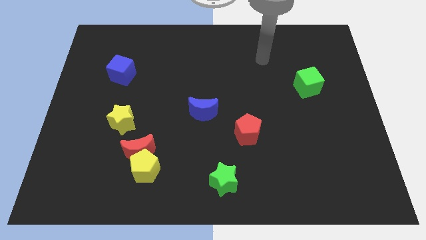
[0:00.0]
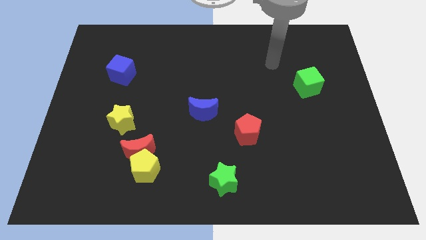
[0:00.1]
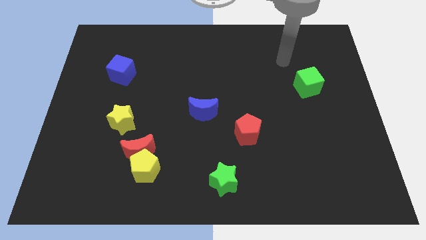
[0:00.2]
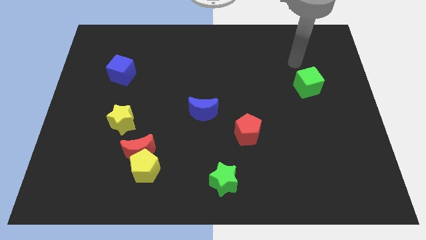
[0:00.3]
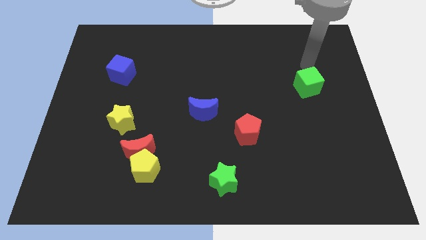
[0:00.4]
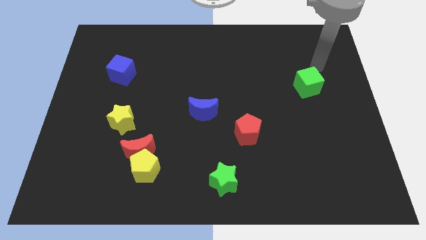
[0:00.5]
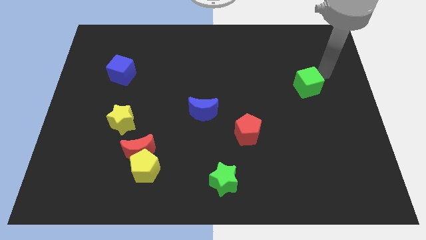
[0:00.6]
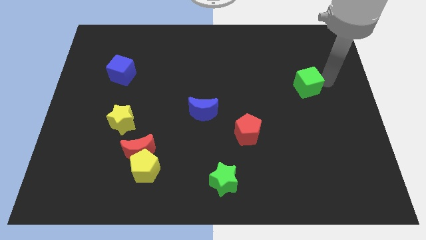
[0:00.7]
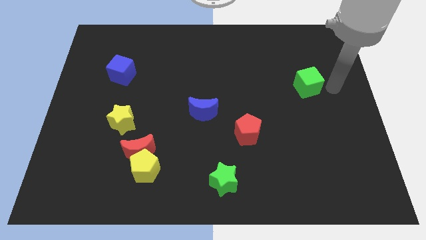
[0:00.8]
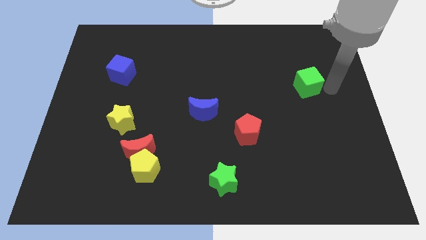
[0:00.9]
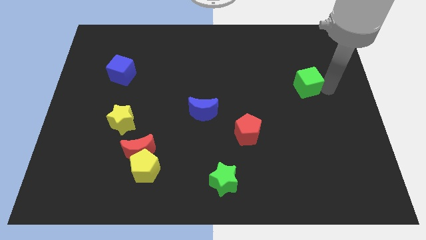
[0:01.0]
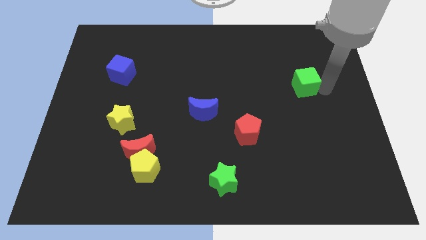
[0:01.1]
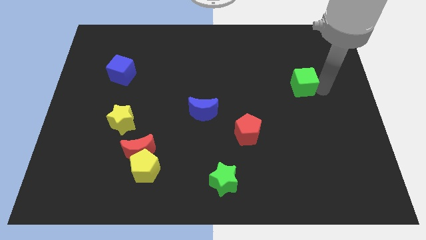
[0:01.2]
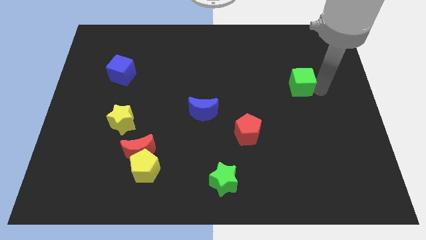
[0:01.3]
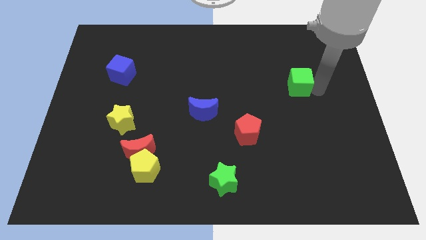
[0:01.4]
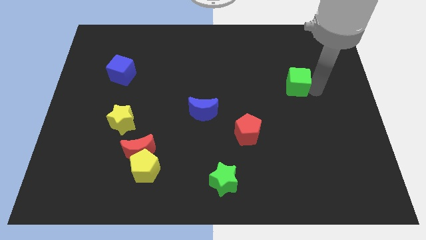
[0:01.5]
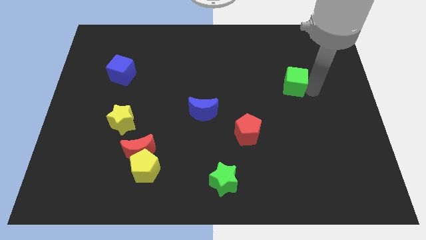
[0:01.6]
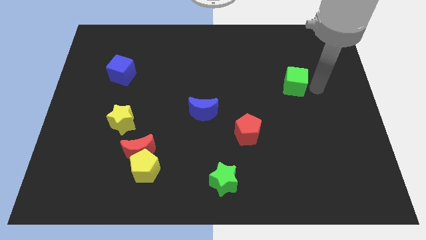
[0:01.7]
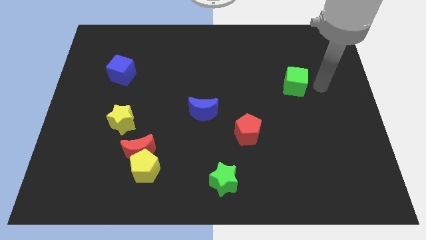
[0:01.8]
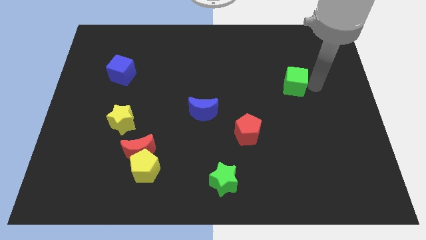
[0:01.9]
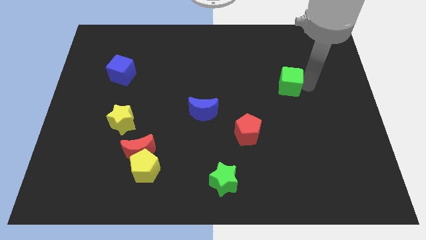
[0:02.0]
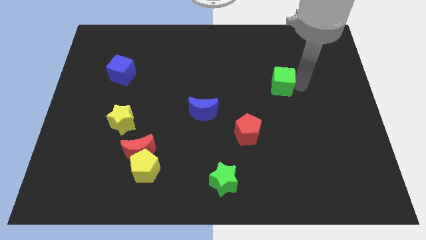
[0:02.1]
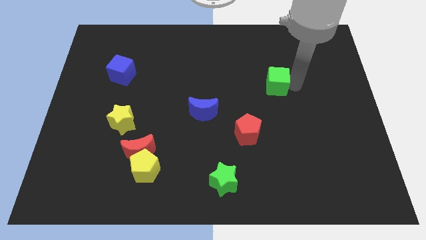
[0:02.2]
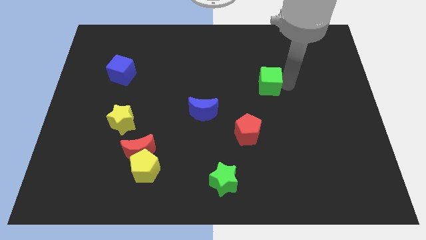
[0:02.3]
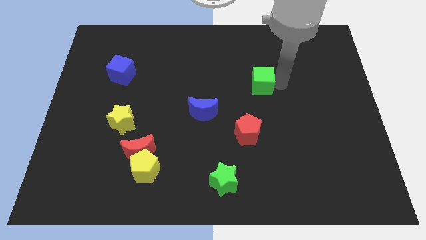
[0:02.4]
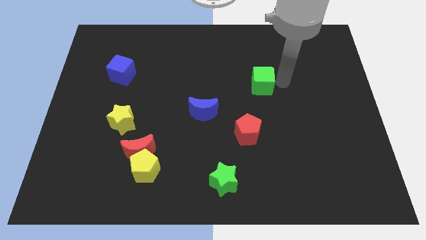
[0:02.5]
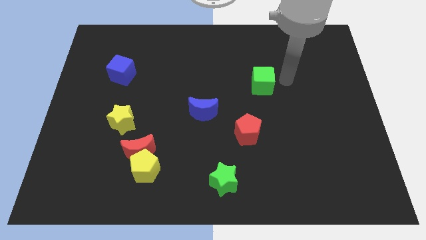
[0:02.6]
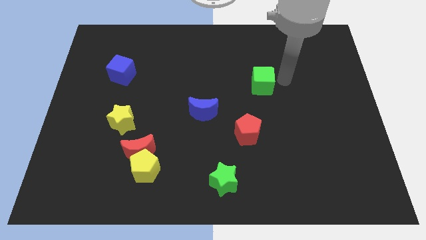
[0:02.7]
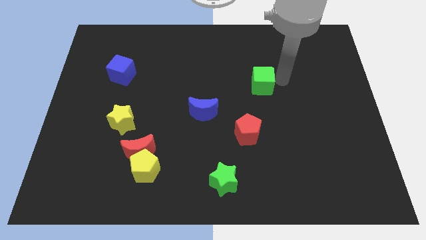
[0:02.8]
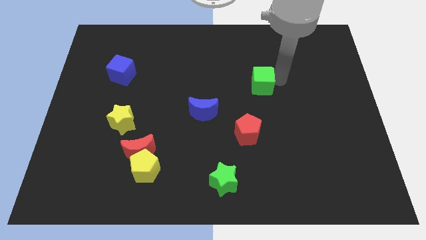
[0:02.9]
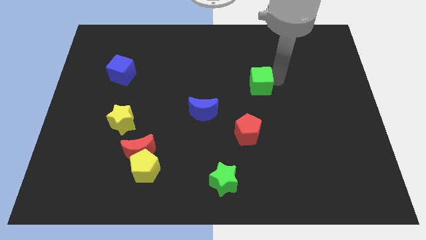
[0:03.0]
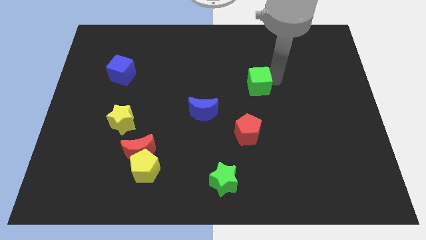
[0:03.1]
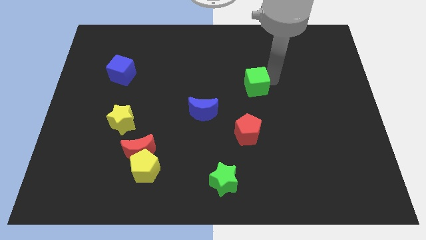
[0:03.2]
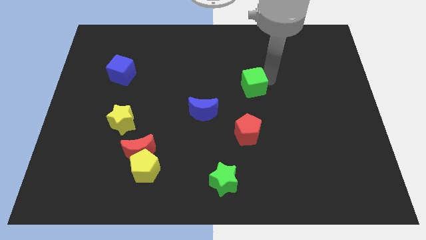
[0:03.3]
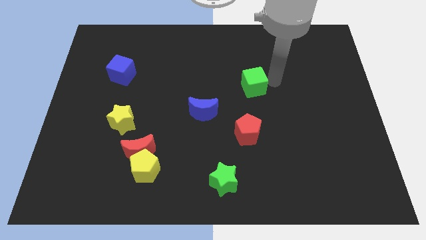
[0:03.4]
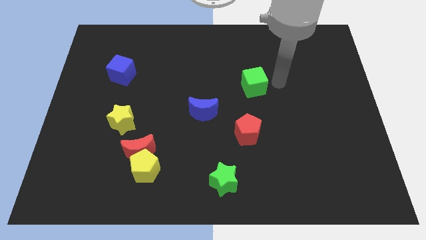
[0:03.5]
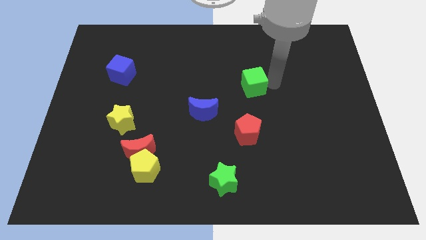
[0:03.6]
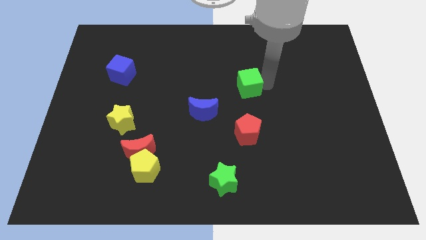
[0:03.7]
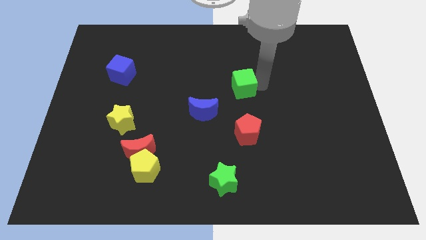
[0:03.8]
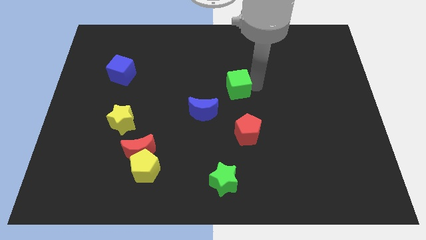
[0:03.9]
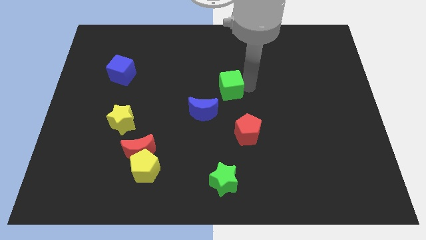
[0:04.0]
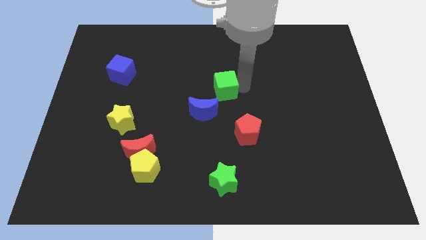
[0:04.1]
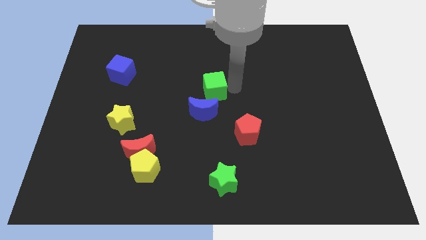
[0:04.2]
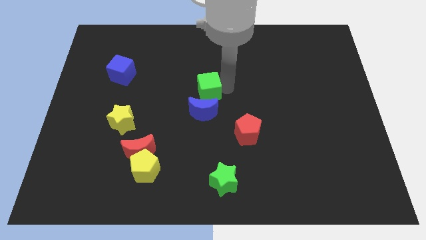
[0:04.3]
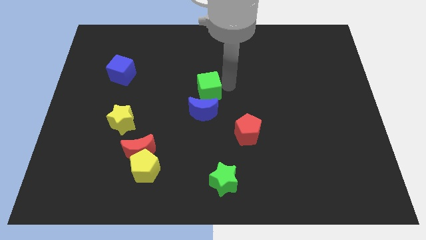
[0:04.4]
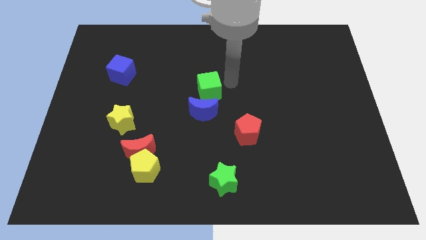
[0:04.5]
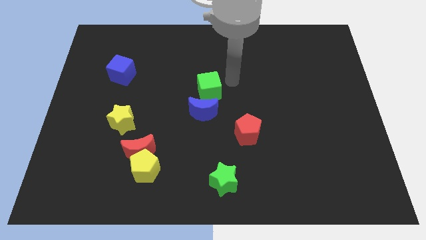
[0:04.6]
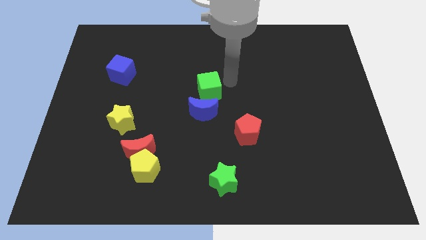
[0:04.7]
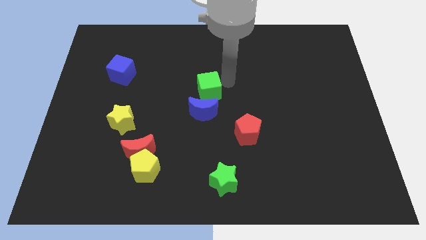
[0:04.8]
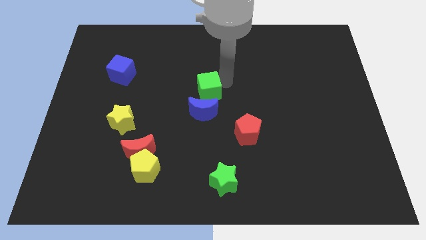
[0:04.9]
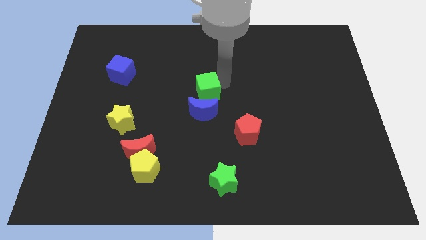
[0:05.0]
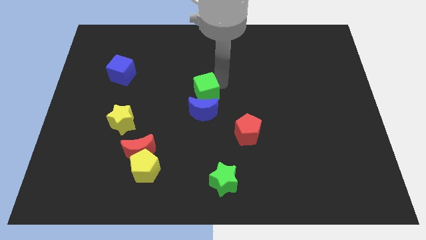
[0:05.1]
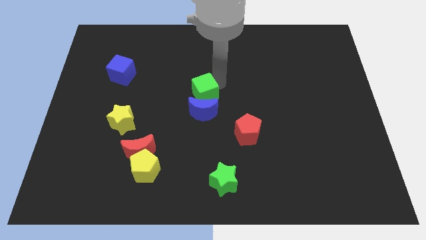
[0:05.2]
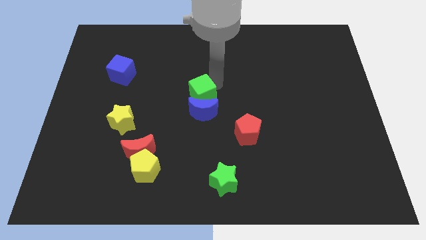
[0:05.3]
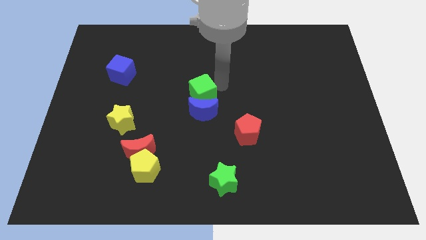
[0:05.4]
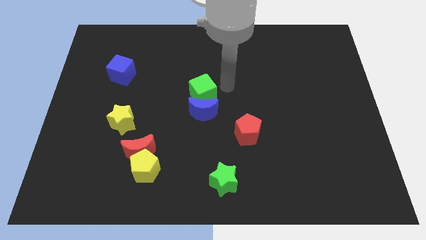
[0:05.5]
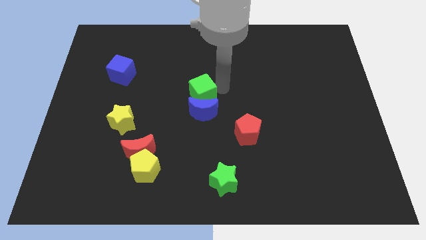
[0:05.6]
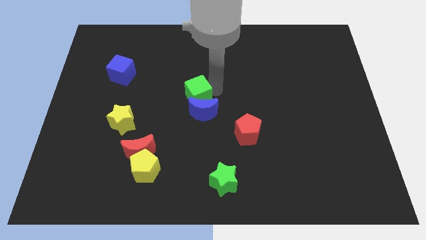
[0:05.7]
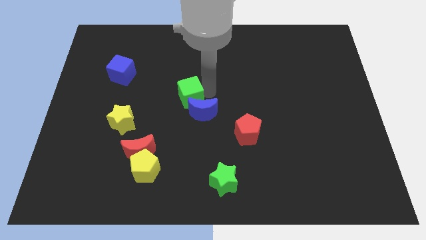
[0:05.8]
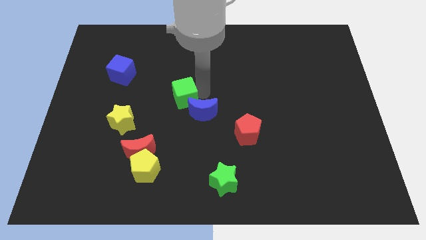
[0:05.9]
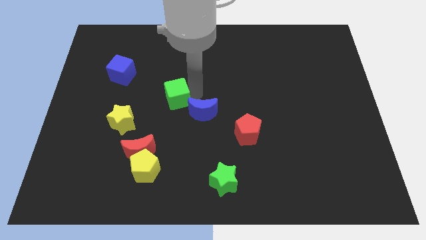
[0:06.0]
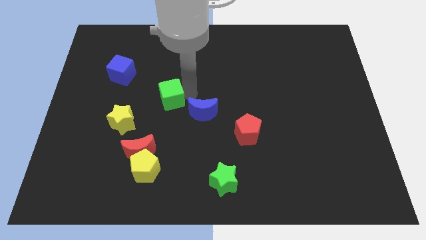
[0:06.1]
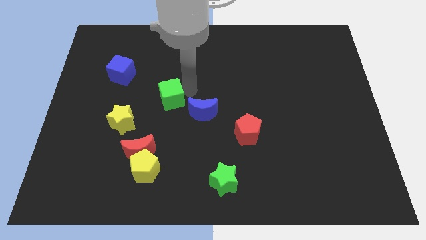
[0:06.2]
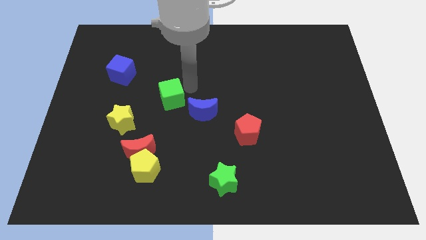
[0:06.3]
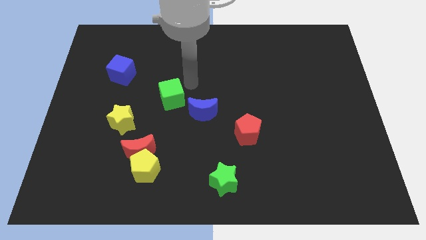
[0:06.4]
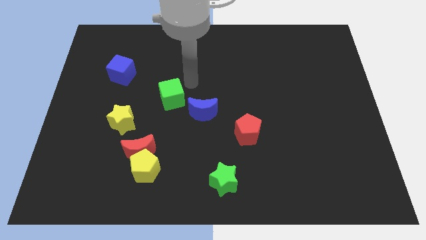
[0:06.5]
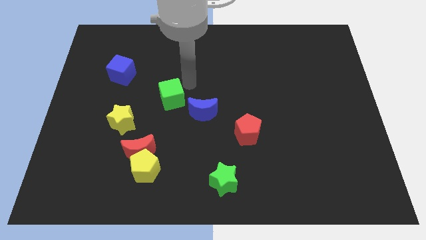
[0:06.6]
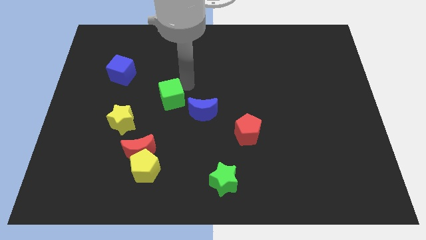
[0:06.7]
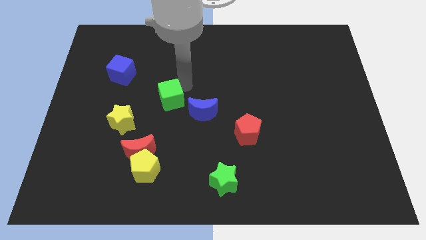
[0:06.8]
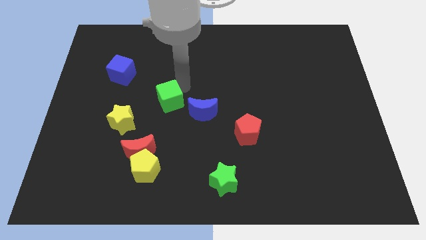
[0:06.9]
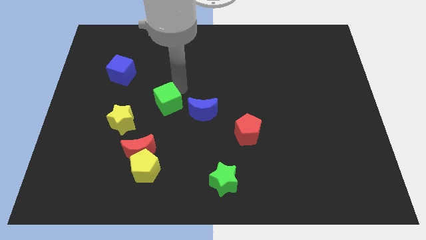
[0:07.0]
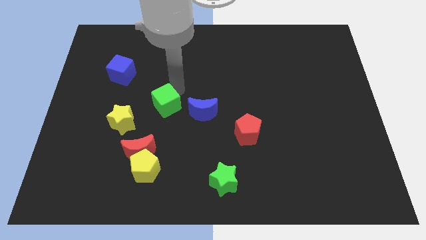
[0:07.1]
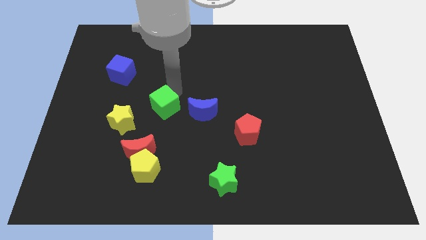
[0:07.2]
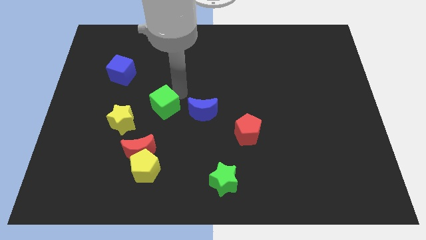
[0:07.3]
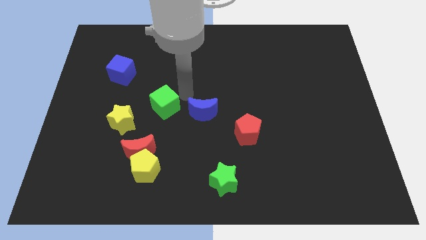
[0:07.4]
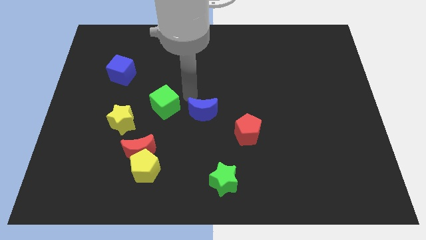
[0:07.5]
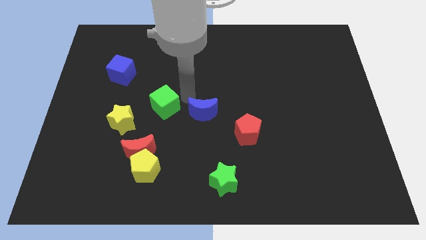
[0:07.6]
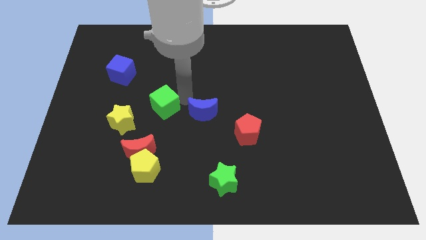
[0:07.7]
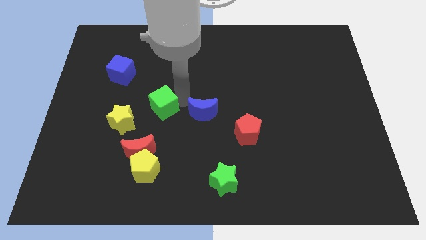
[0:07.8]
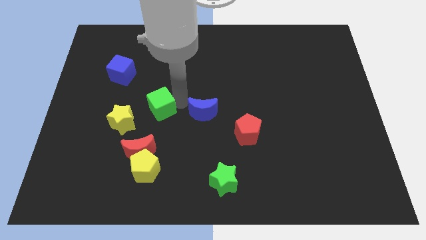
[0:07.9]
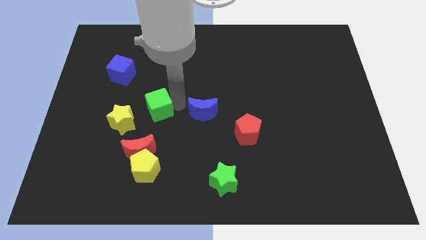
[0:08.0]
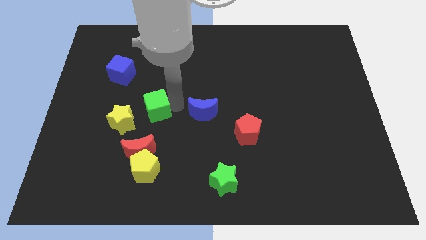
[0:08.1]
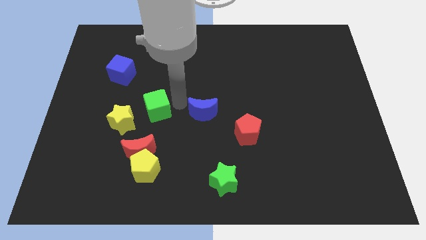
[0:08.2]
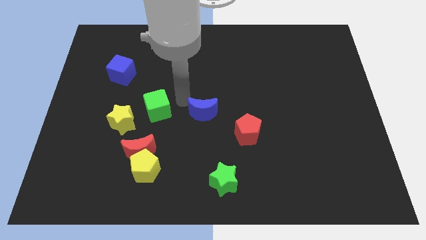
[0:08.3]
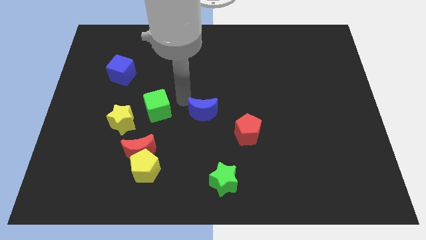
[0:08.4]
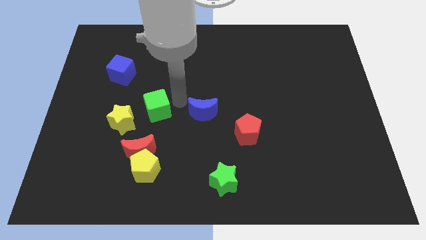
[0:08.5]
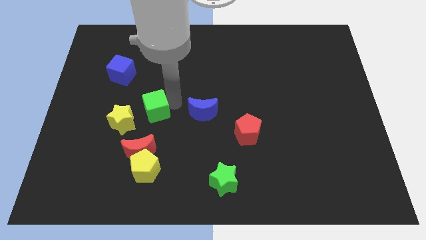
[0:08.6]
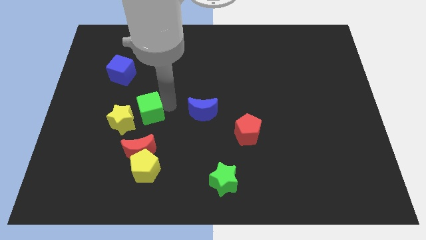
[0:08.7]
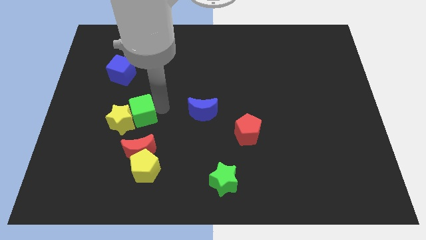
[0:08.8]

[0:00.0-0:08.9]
slide the green cube next to the yellow star
